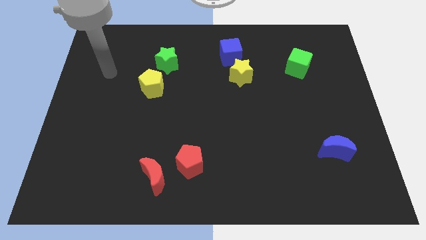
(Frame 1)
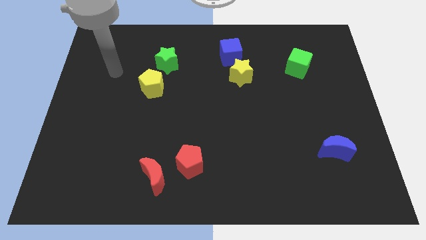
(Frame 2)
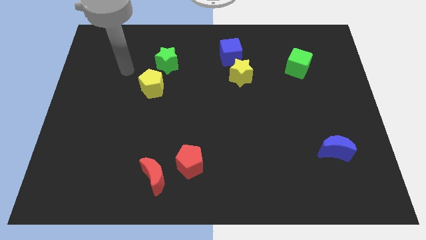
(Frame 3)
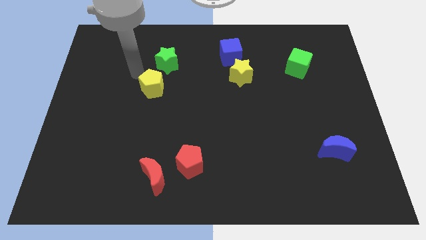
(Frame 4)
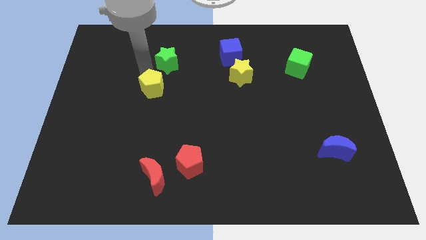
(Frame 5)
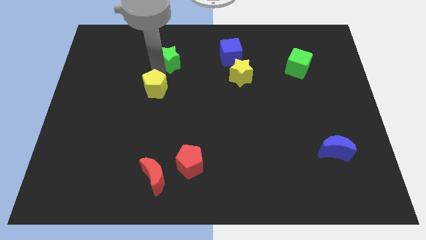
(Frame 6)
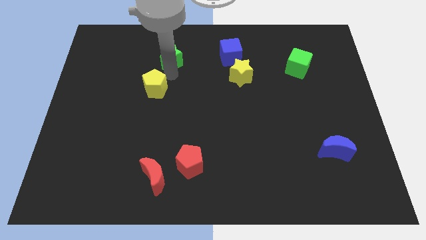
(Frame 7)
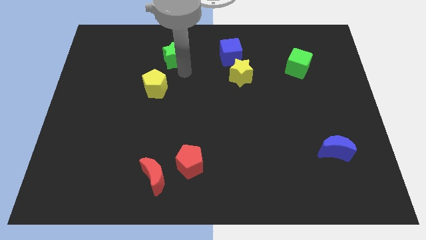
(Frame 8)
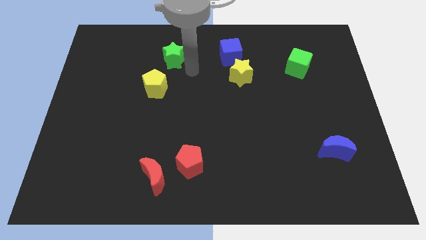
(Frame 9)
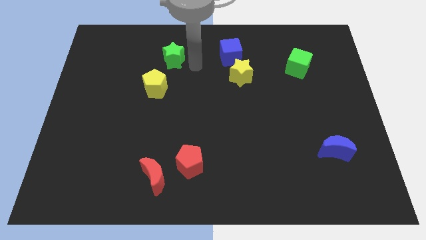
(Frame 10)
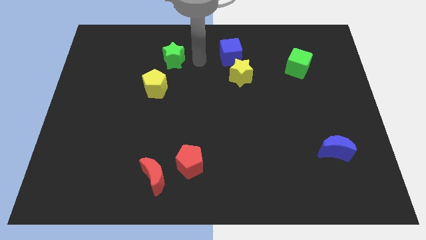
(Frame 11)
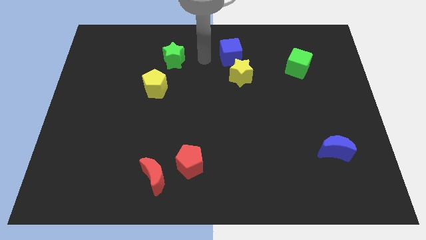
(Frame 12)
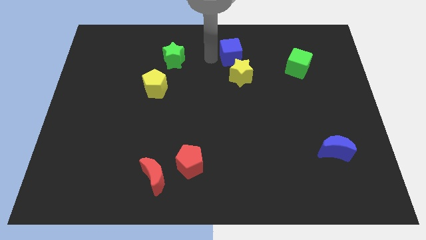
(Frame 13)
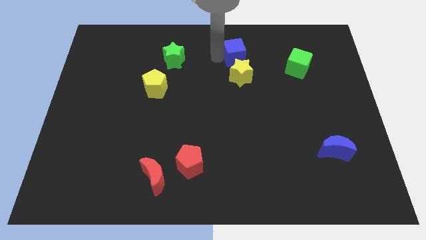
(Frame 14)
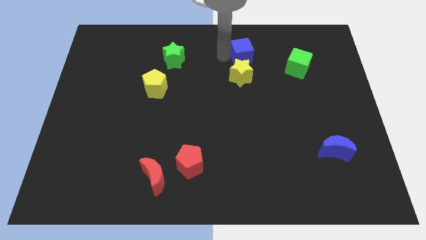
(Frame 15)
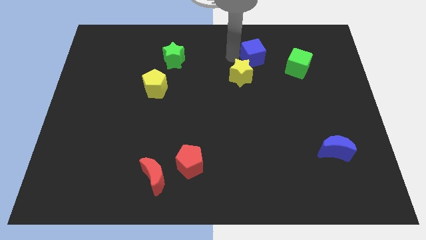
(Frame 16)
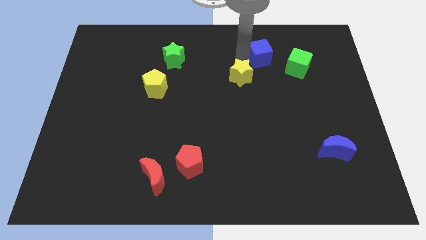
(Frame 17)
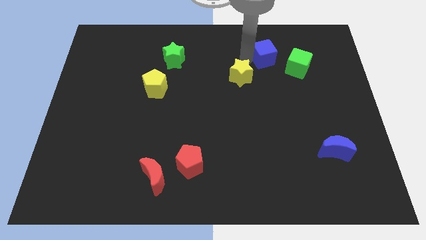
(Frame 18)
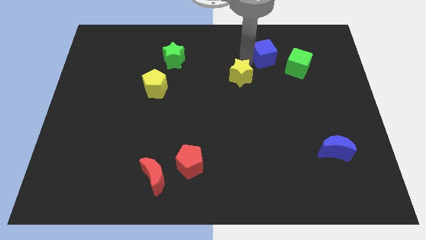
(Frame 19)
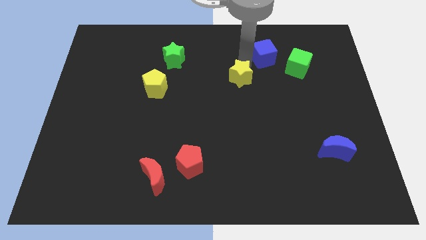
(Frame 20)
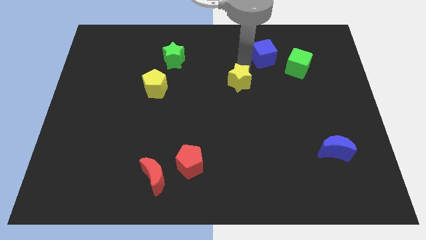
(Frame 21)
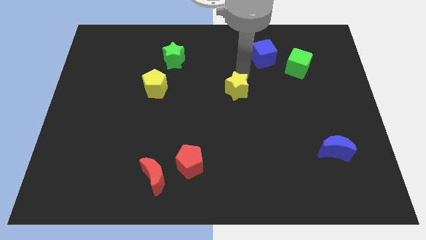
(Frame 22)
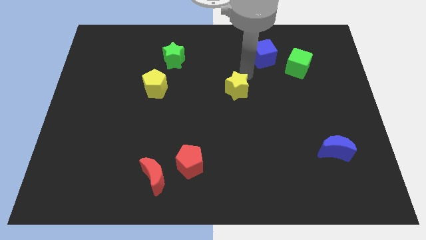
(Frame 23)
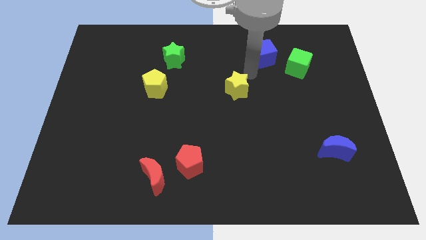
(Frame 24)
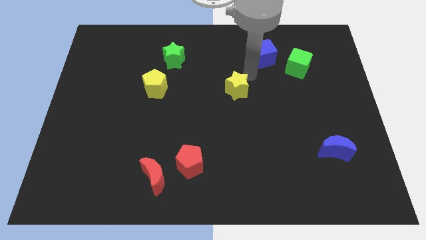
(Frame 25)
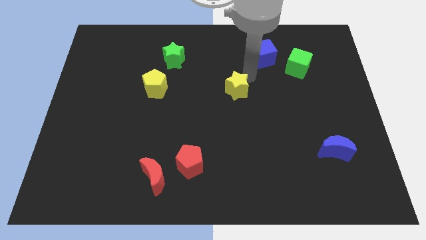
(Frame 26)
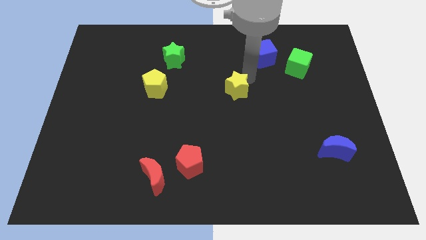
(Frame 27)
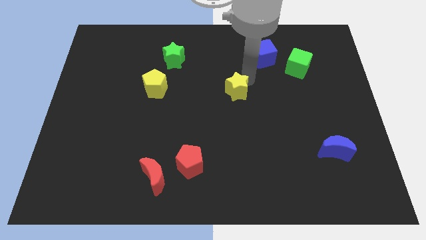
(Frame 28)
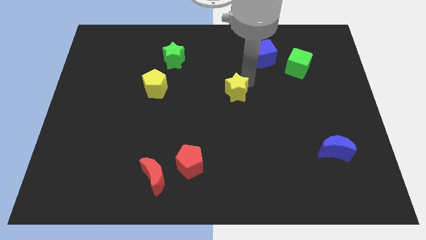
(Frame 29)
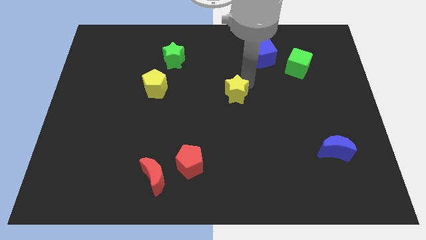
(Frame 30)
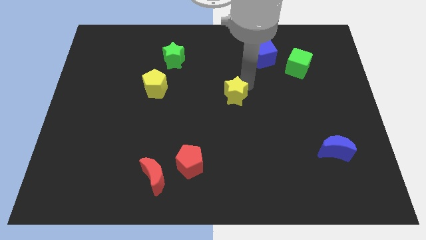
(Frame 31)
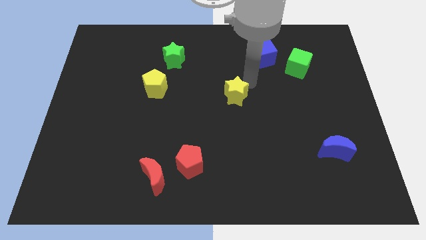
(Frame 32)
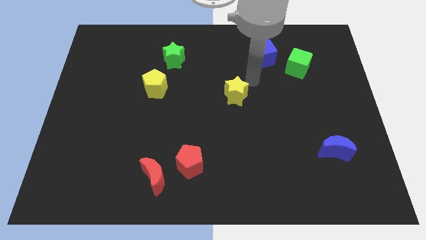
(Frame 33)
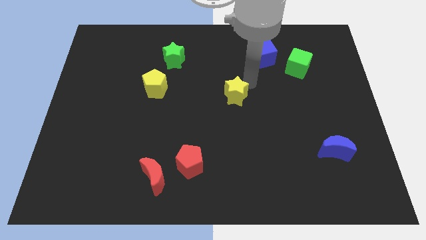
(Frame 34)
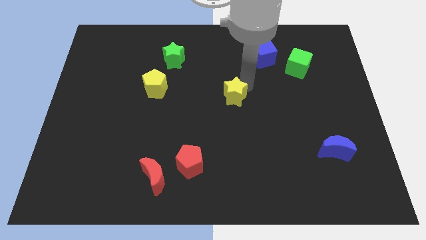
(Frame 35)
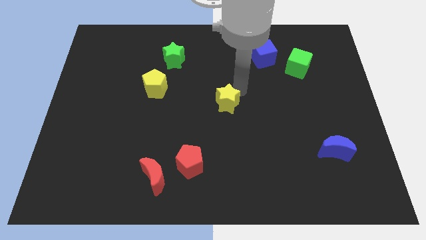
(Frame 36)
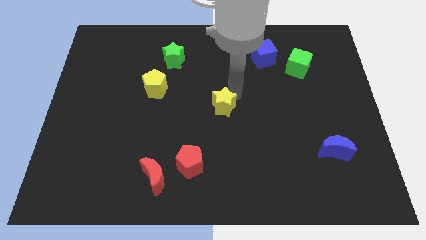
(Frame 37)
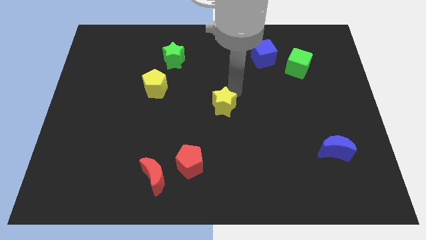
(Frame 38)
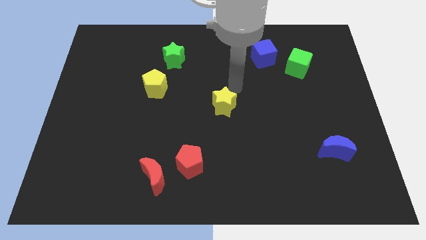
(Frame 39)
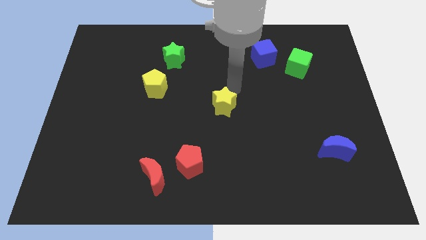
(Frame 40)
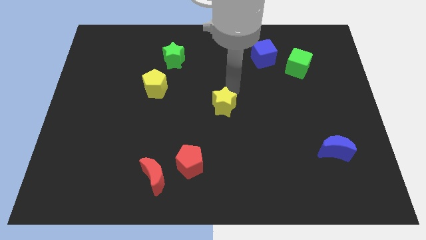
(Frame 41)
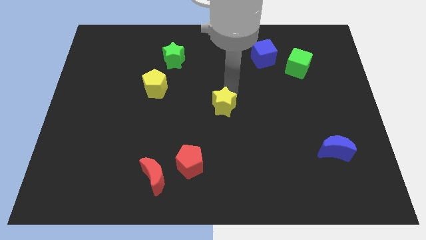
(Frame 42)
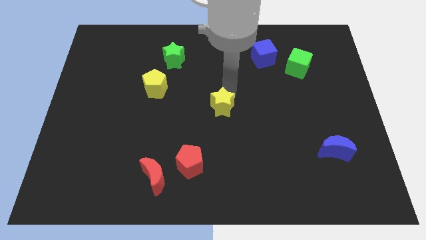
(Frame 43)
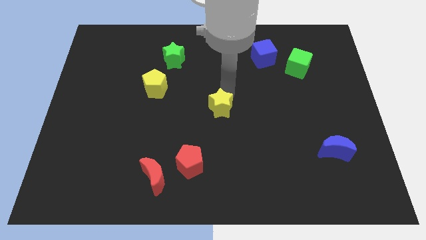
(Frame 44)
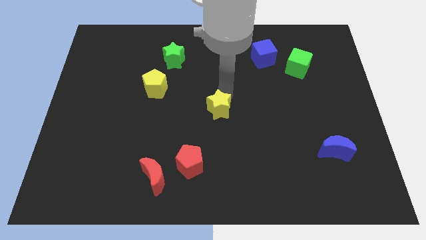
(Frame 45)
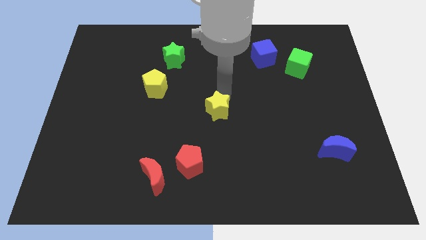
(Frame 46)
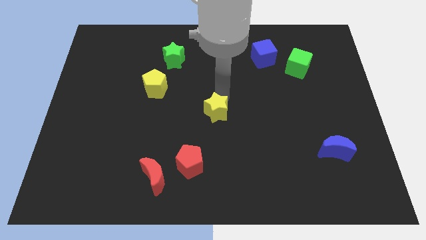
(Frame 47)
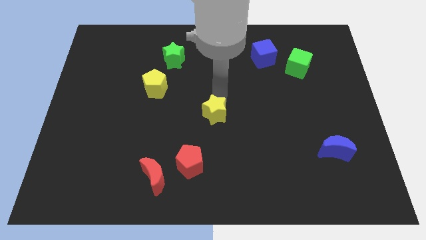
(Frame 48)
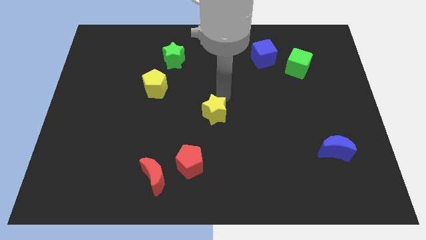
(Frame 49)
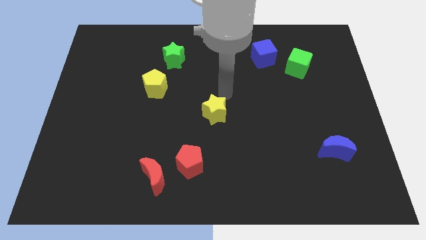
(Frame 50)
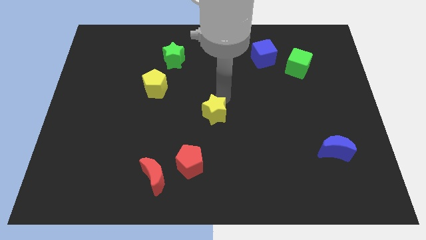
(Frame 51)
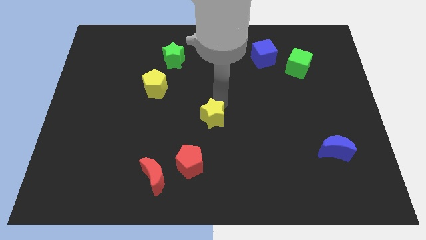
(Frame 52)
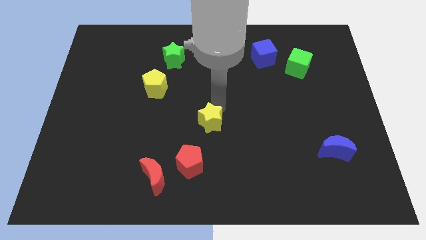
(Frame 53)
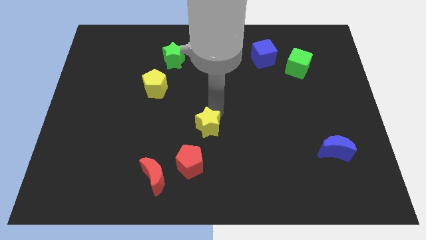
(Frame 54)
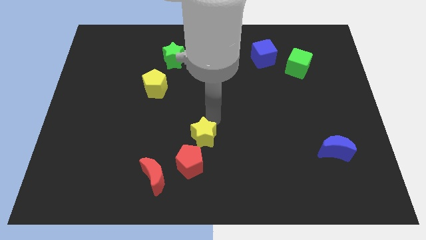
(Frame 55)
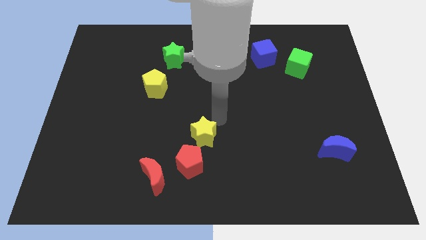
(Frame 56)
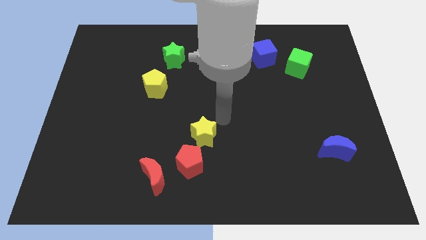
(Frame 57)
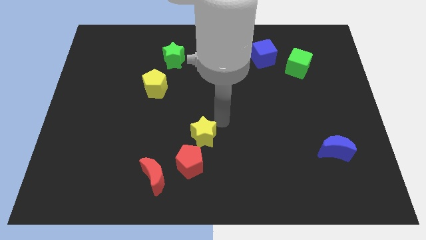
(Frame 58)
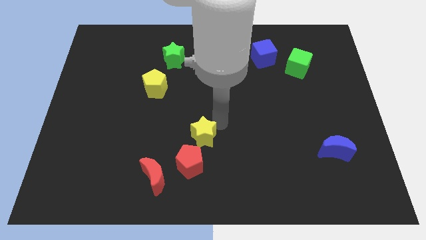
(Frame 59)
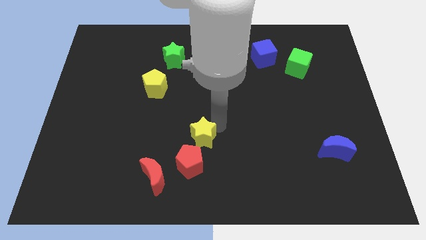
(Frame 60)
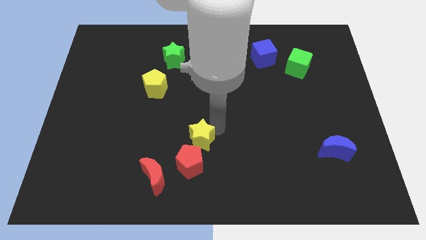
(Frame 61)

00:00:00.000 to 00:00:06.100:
slide the yellow star to the top right side of the red moon

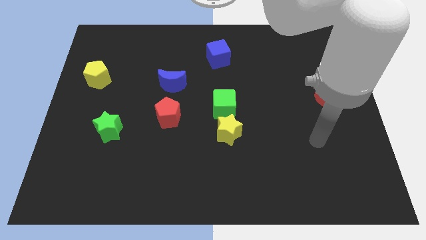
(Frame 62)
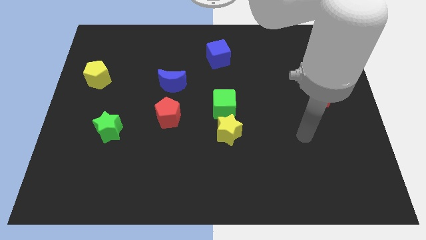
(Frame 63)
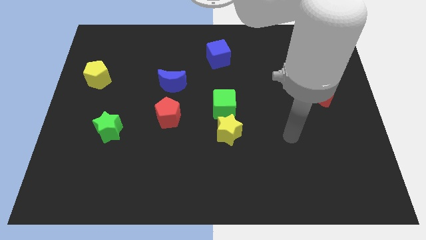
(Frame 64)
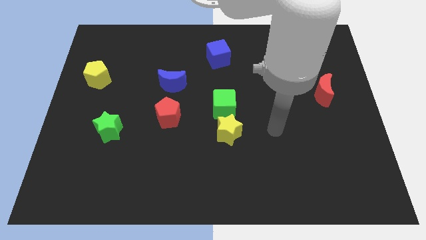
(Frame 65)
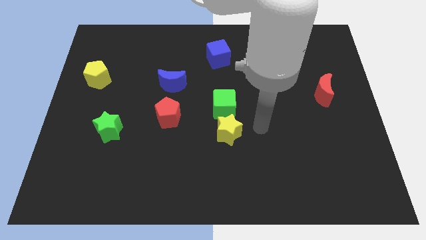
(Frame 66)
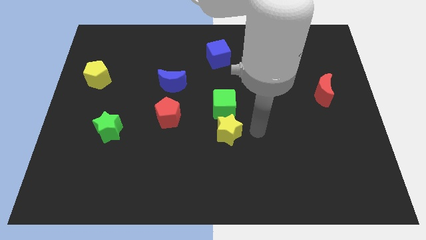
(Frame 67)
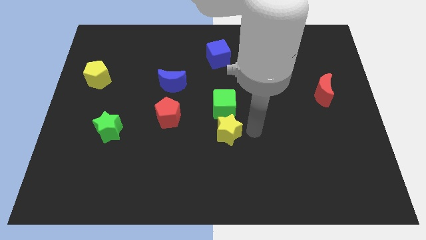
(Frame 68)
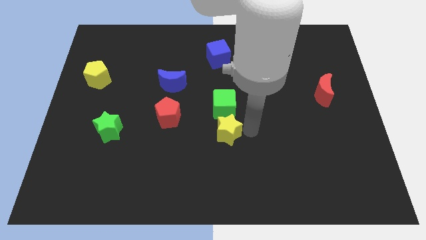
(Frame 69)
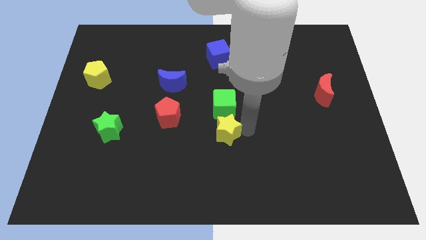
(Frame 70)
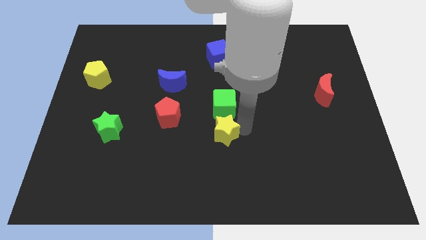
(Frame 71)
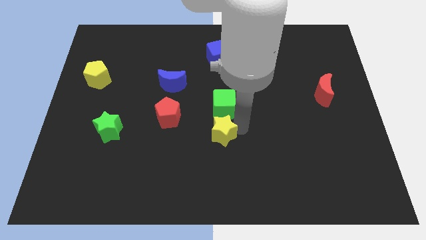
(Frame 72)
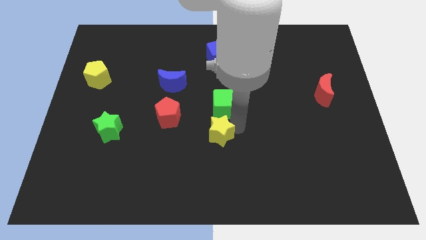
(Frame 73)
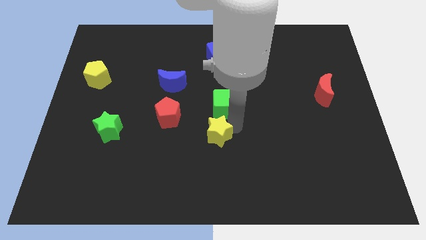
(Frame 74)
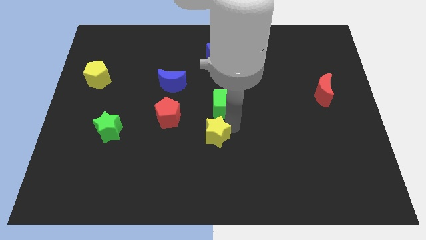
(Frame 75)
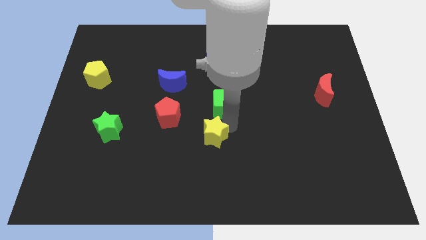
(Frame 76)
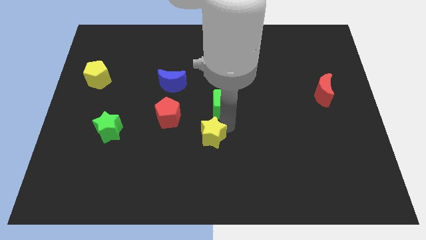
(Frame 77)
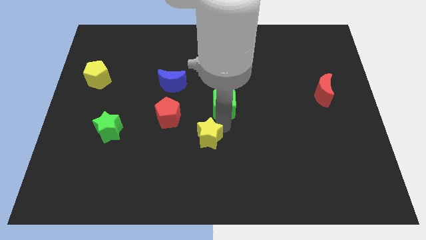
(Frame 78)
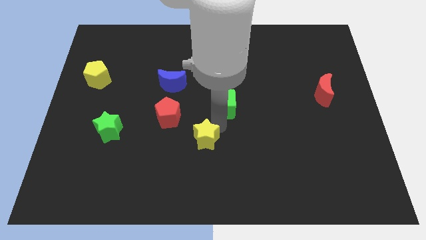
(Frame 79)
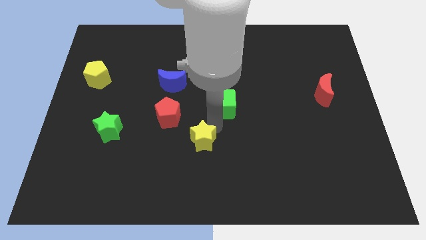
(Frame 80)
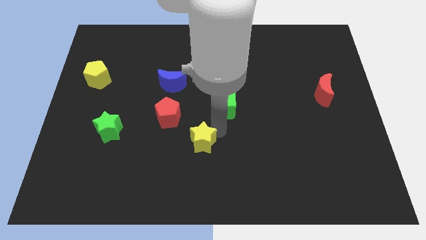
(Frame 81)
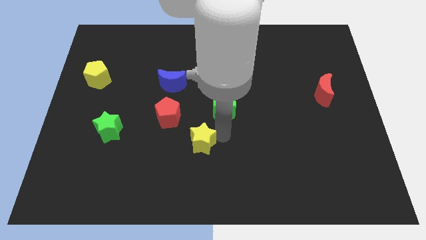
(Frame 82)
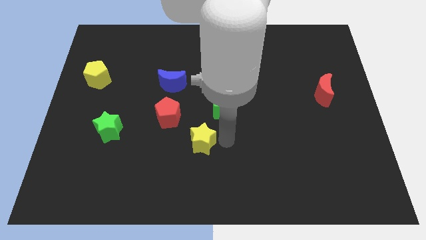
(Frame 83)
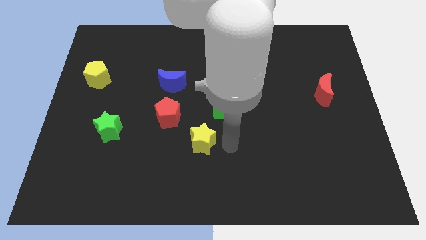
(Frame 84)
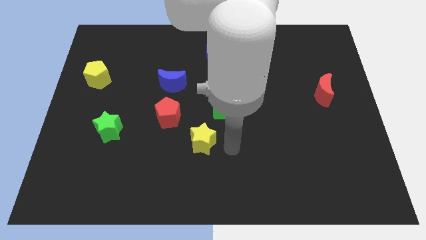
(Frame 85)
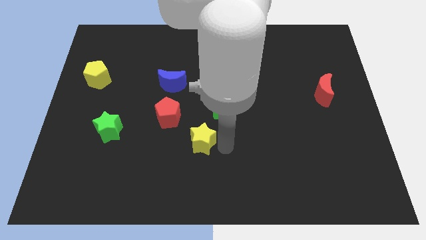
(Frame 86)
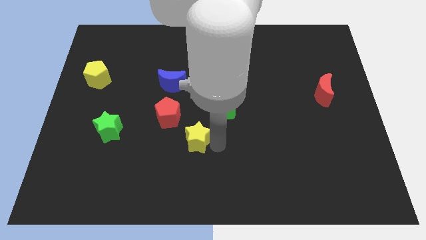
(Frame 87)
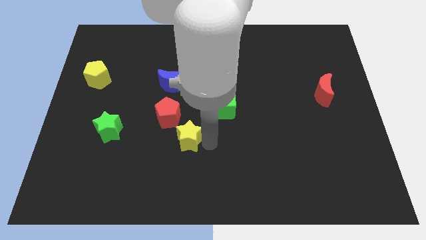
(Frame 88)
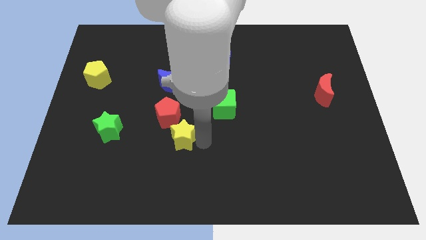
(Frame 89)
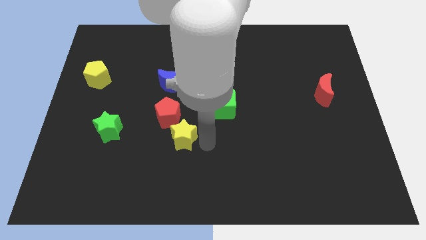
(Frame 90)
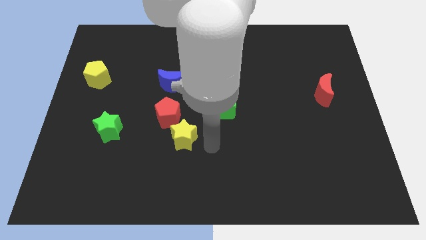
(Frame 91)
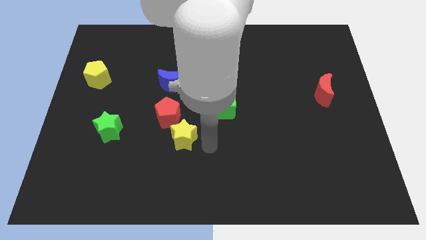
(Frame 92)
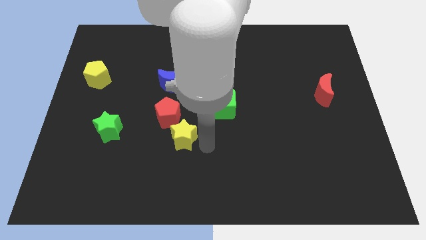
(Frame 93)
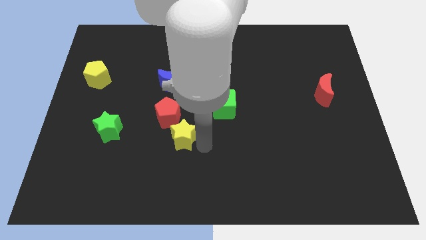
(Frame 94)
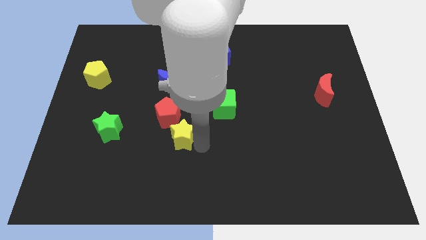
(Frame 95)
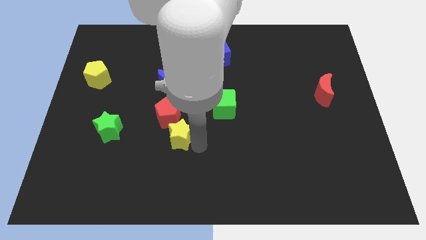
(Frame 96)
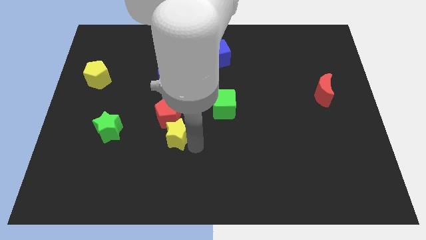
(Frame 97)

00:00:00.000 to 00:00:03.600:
move the yellow star below the blue moon
